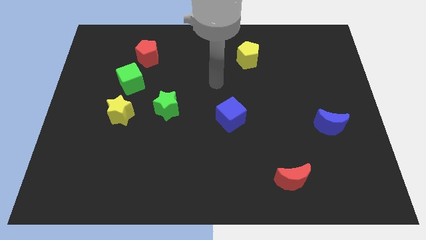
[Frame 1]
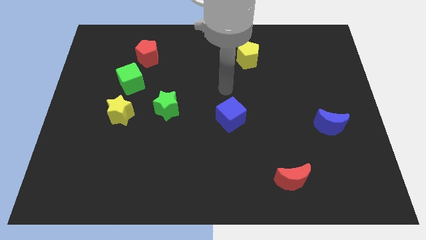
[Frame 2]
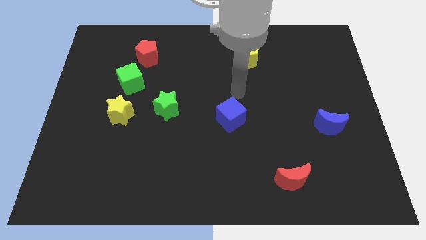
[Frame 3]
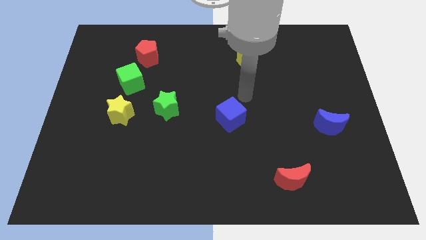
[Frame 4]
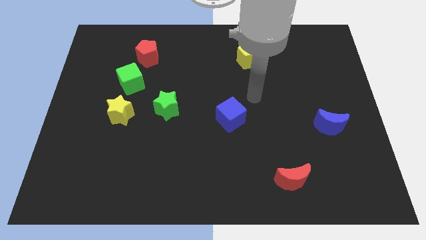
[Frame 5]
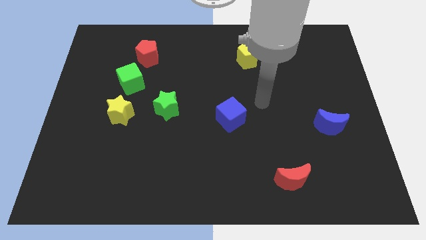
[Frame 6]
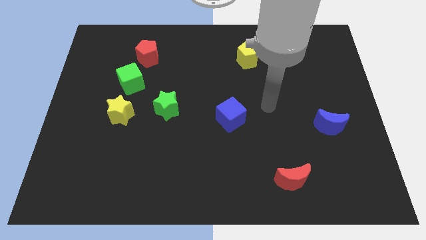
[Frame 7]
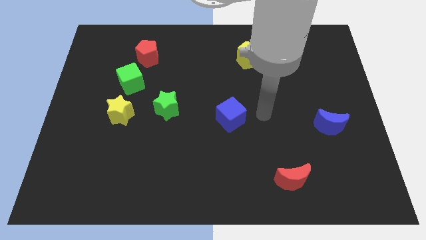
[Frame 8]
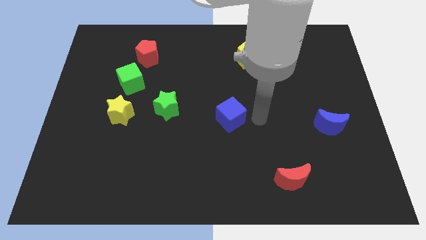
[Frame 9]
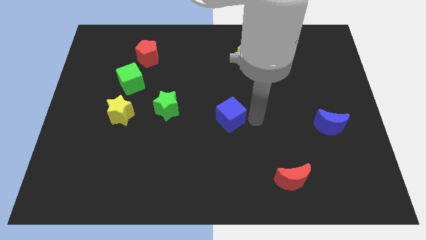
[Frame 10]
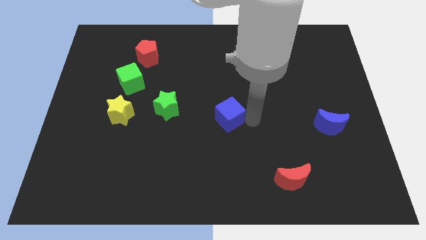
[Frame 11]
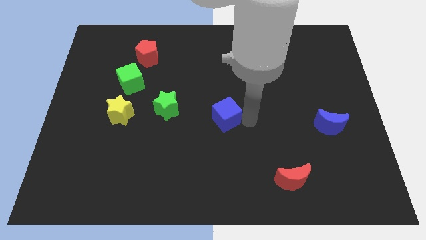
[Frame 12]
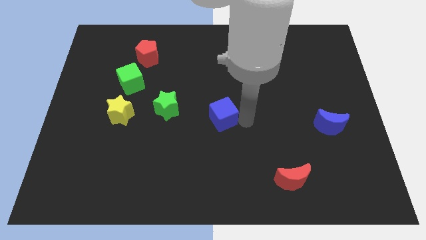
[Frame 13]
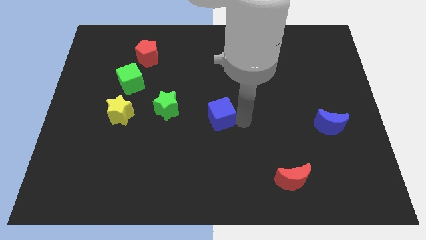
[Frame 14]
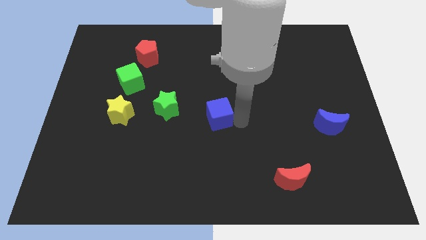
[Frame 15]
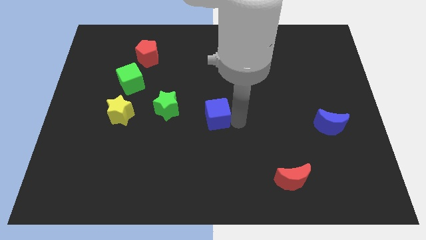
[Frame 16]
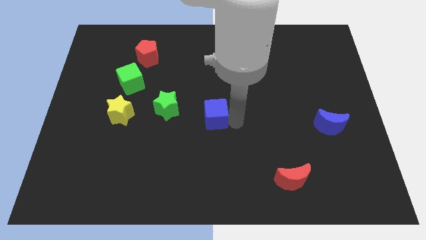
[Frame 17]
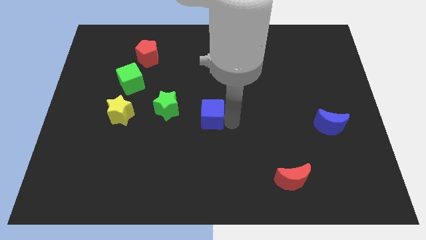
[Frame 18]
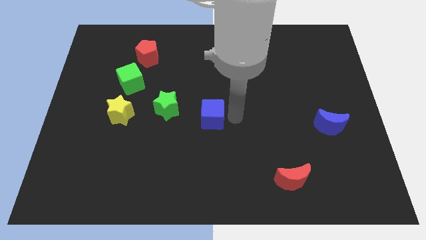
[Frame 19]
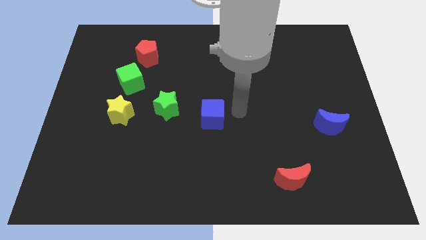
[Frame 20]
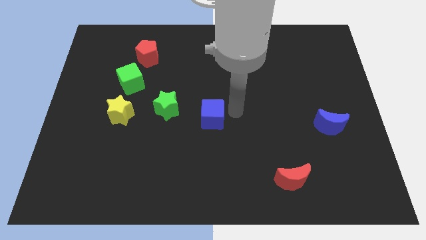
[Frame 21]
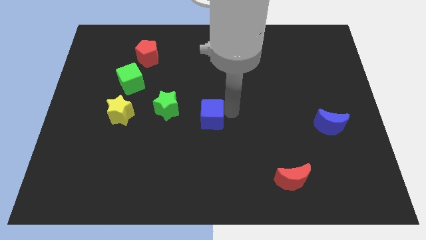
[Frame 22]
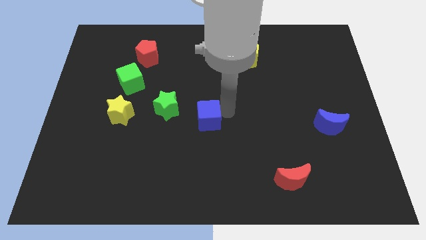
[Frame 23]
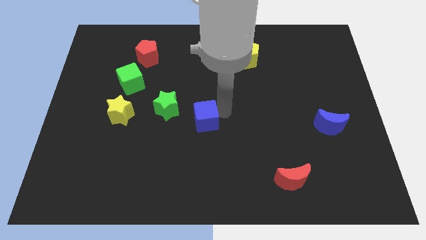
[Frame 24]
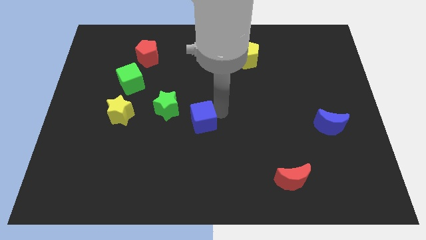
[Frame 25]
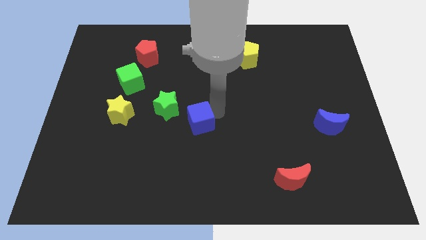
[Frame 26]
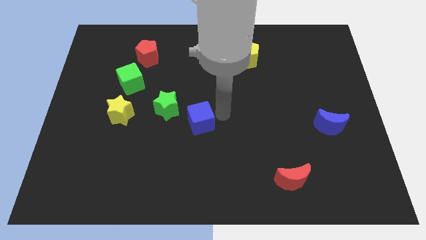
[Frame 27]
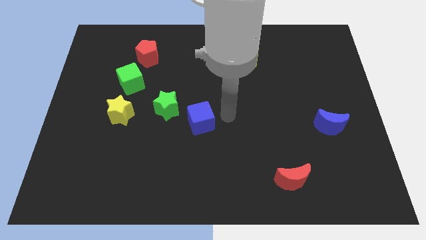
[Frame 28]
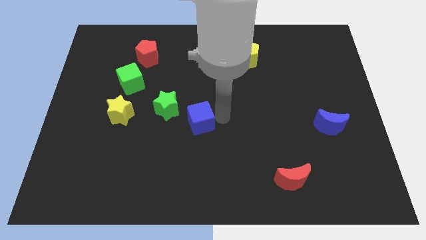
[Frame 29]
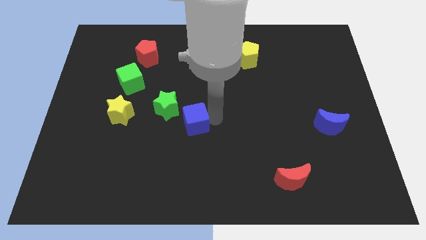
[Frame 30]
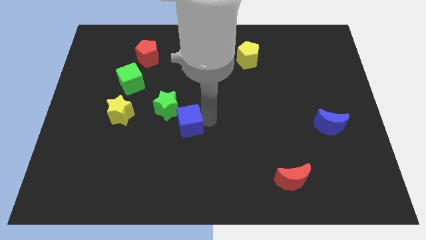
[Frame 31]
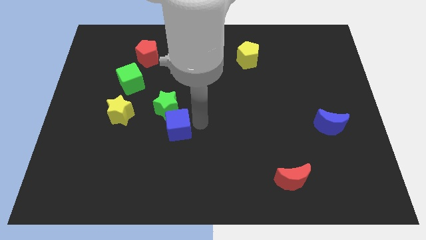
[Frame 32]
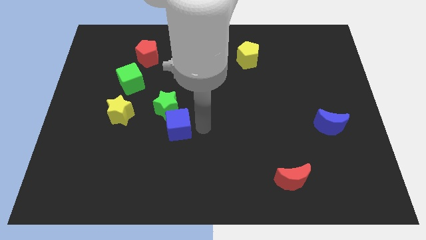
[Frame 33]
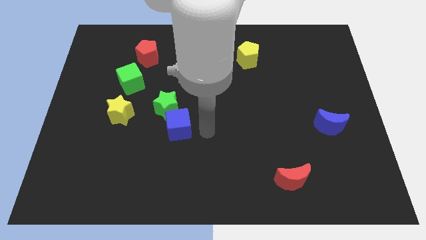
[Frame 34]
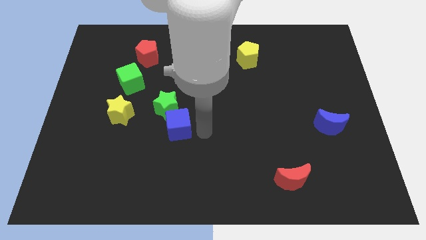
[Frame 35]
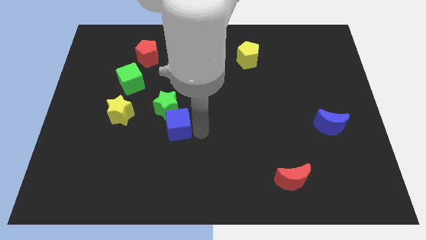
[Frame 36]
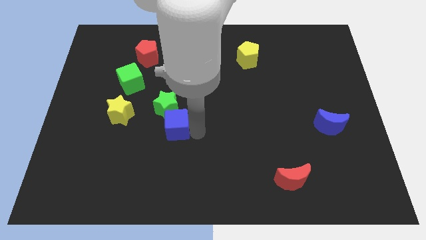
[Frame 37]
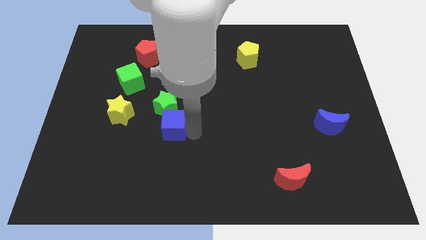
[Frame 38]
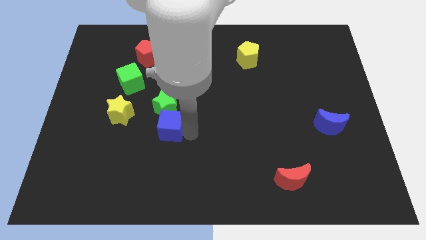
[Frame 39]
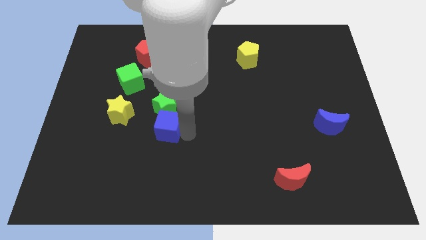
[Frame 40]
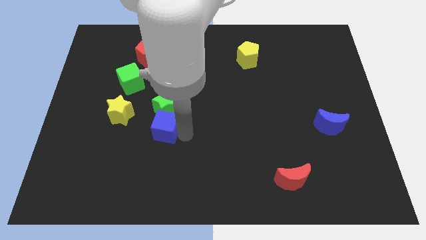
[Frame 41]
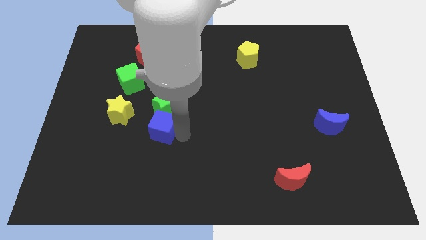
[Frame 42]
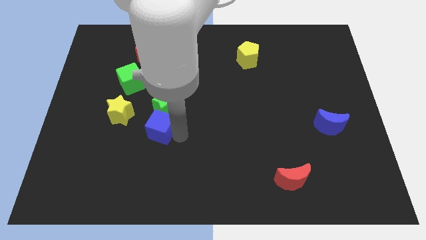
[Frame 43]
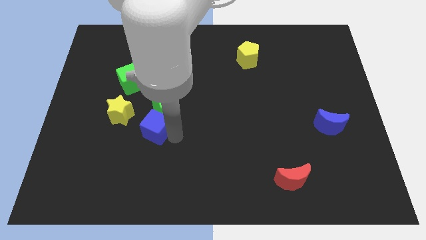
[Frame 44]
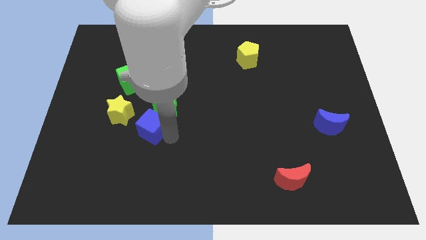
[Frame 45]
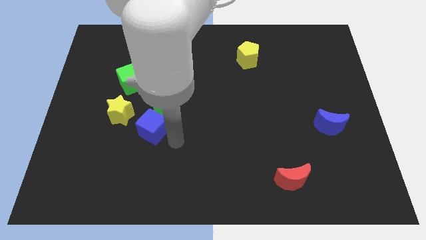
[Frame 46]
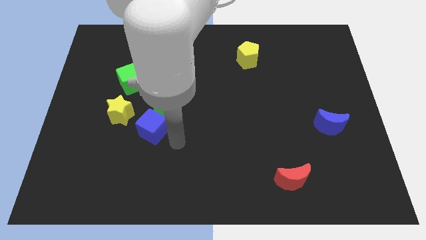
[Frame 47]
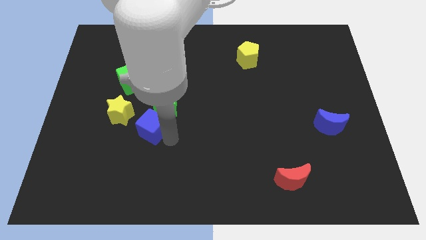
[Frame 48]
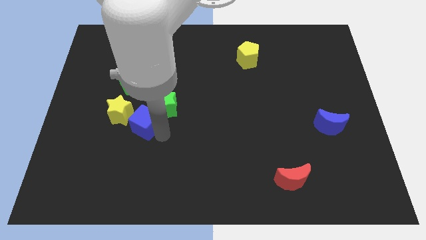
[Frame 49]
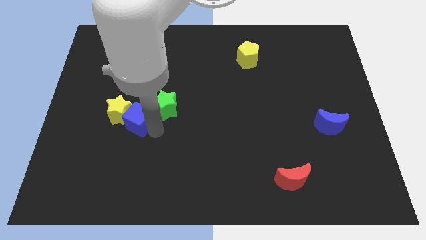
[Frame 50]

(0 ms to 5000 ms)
put the blue cube close to the yellow star
